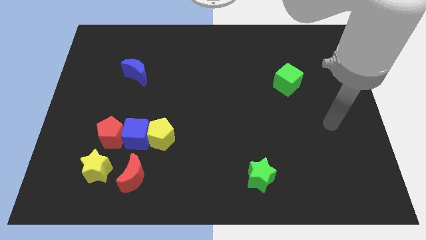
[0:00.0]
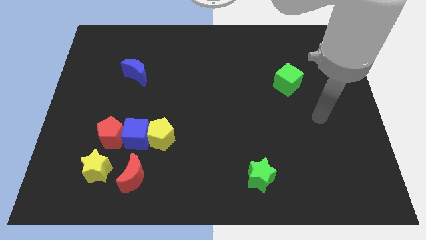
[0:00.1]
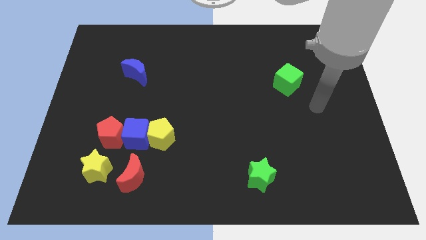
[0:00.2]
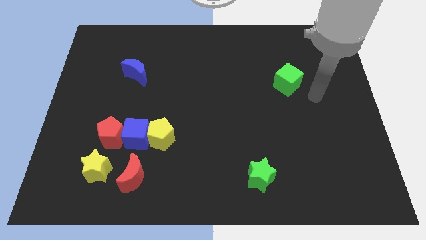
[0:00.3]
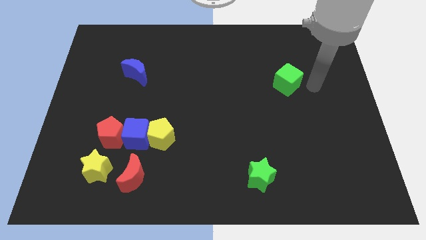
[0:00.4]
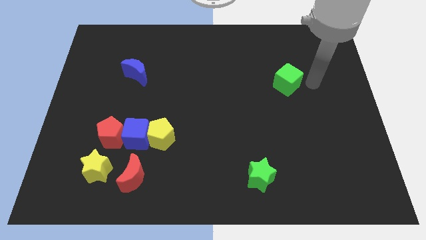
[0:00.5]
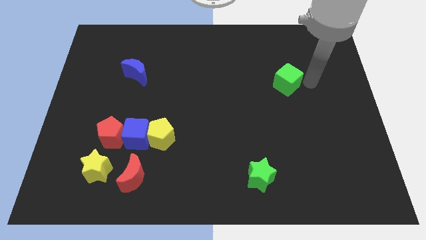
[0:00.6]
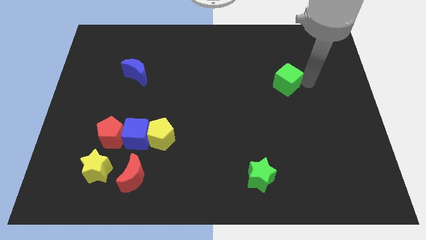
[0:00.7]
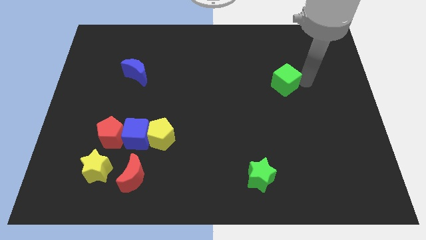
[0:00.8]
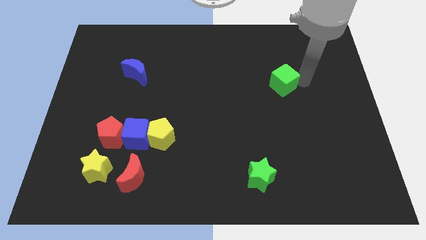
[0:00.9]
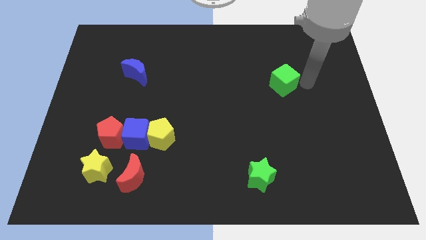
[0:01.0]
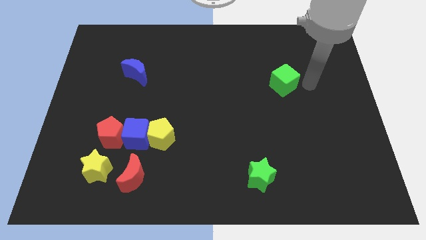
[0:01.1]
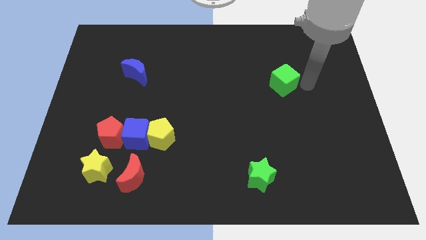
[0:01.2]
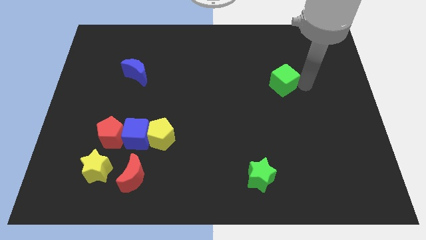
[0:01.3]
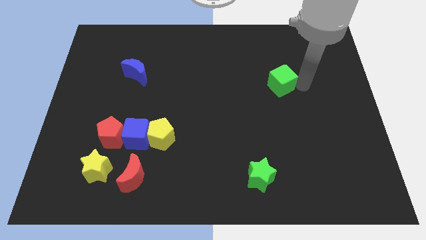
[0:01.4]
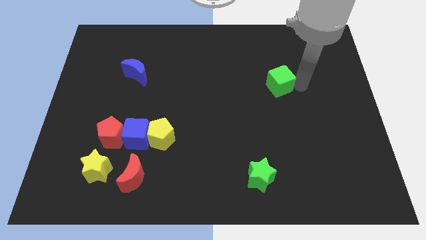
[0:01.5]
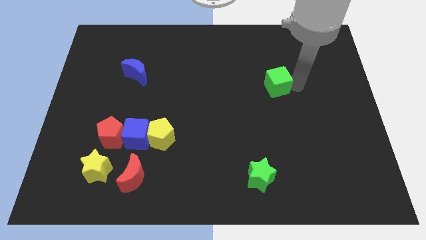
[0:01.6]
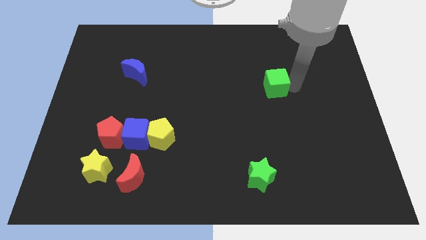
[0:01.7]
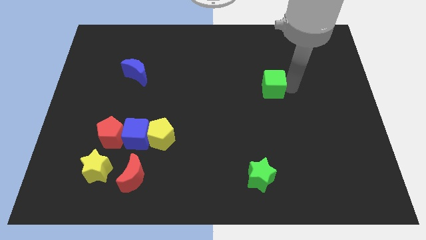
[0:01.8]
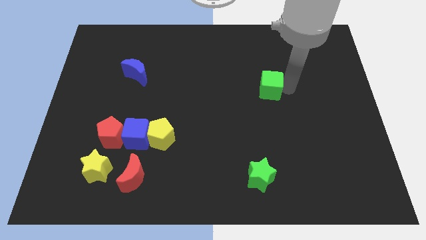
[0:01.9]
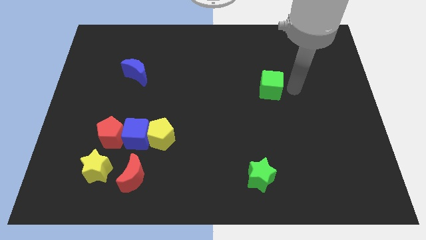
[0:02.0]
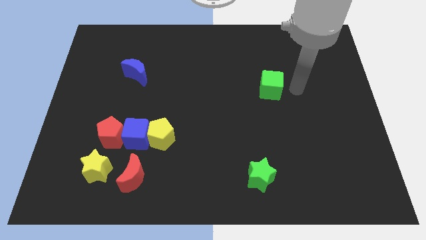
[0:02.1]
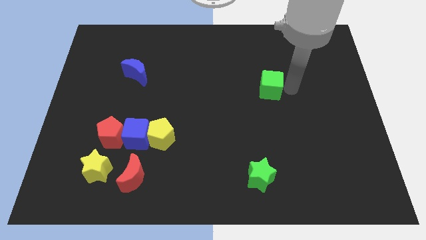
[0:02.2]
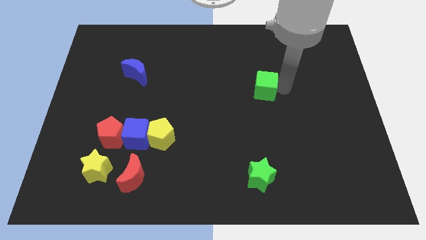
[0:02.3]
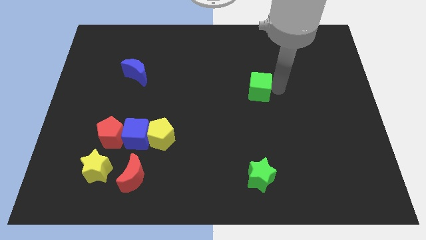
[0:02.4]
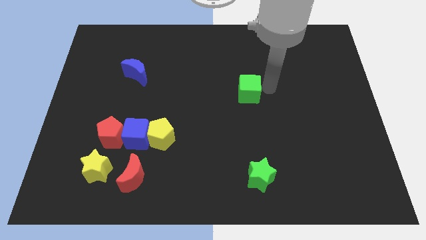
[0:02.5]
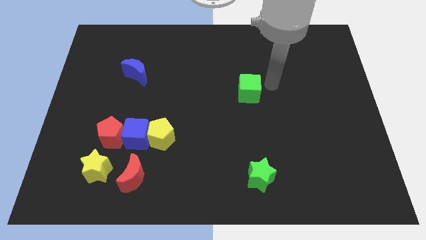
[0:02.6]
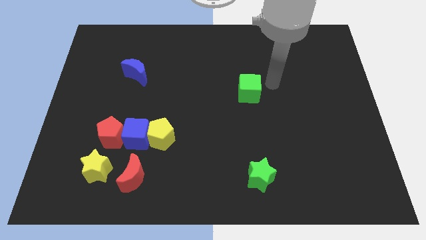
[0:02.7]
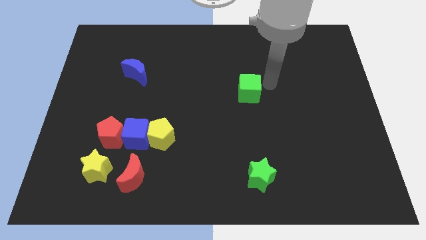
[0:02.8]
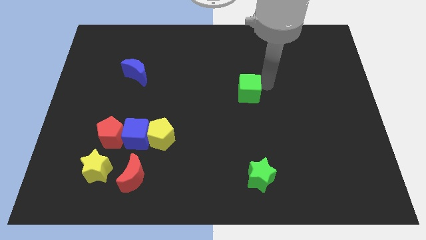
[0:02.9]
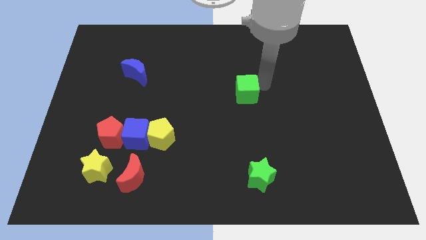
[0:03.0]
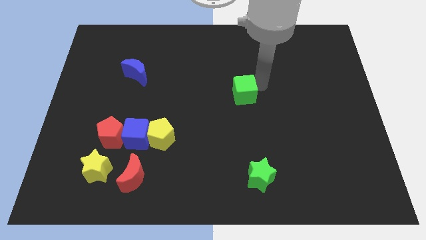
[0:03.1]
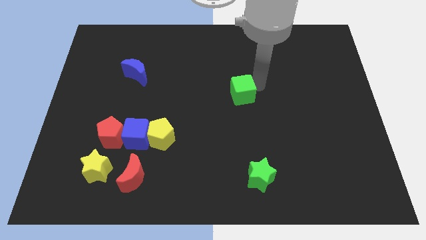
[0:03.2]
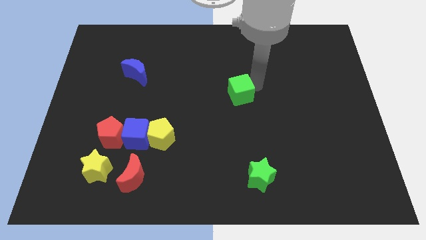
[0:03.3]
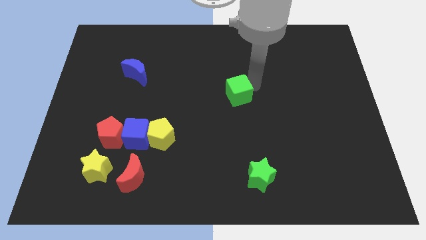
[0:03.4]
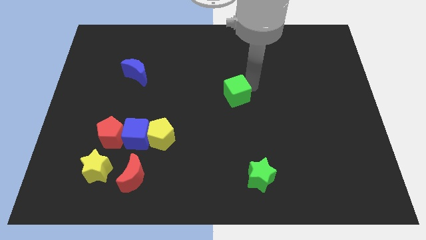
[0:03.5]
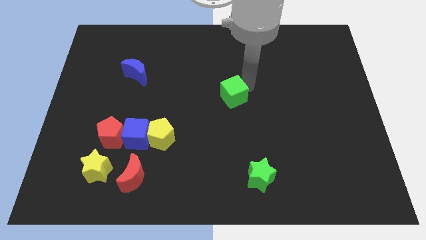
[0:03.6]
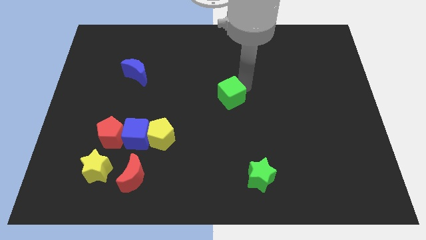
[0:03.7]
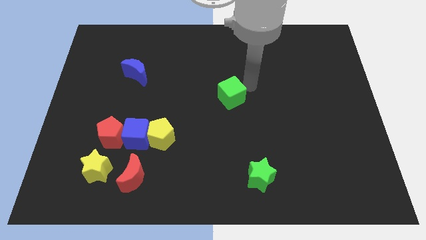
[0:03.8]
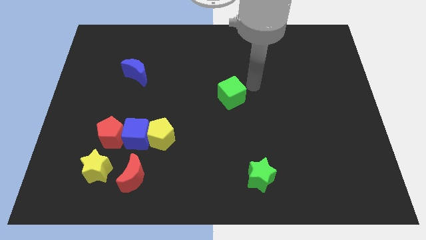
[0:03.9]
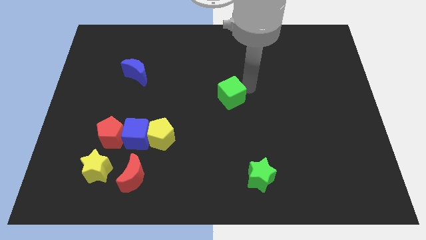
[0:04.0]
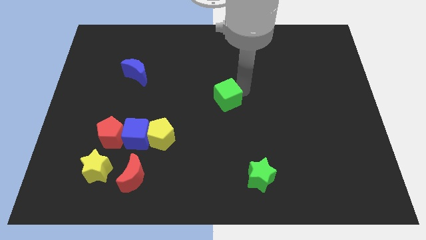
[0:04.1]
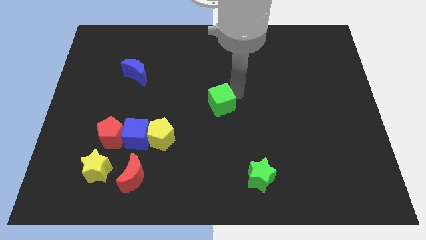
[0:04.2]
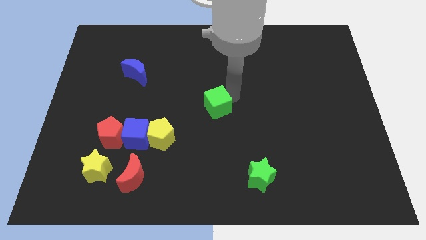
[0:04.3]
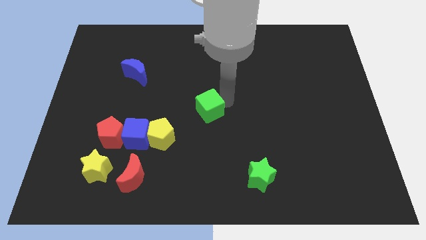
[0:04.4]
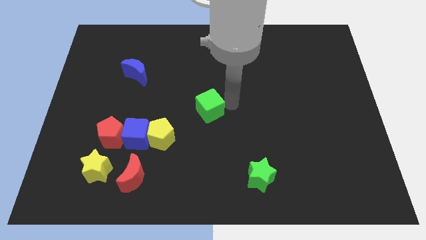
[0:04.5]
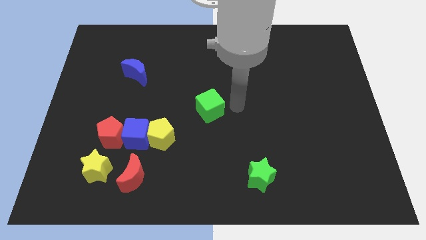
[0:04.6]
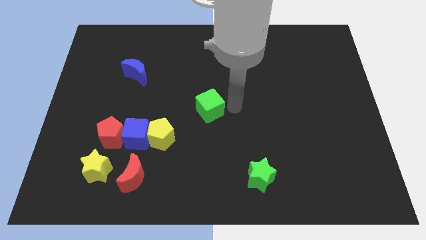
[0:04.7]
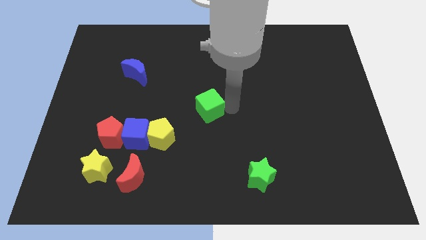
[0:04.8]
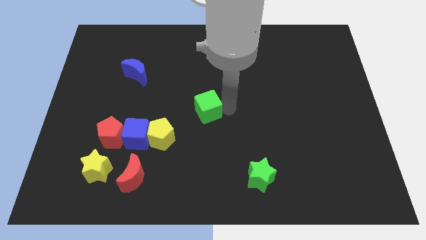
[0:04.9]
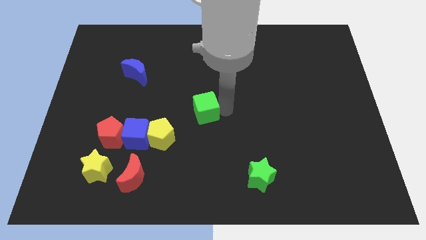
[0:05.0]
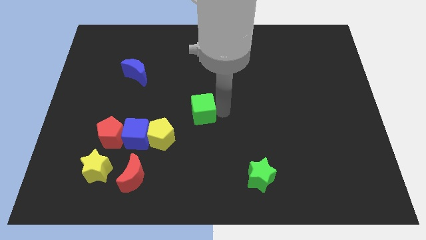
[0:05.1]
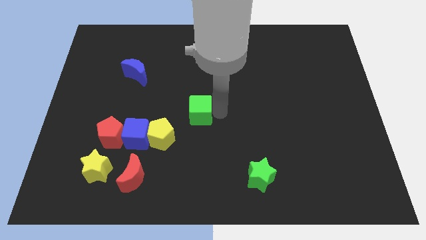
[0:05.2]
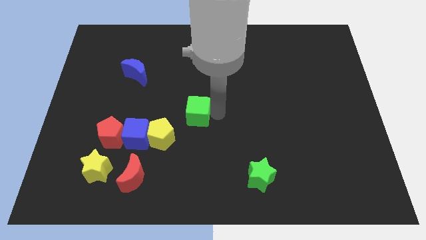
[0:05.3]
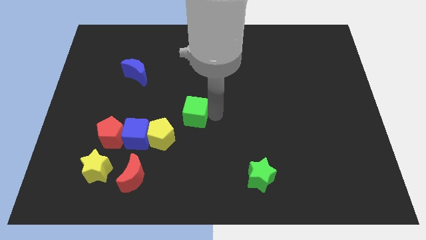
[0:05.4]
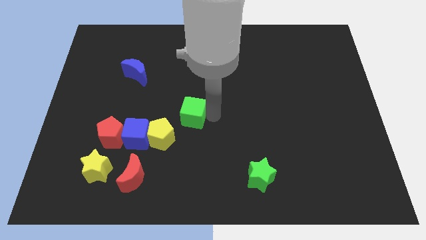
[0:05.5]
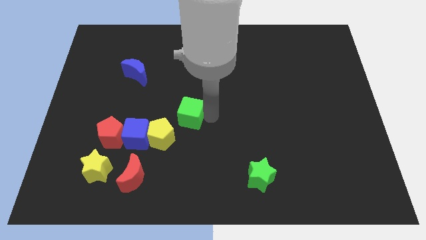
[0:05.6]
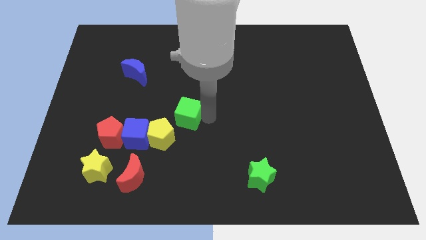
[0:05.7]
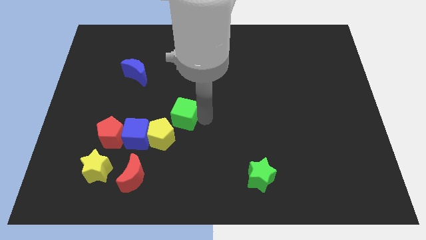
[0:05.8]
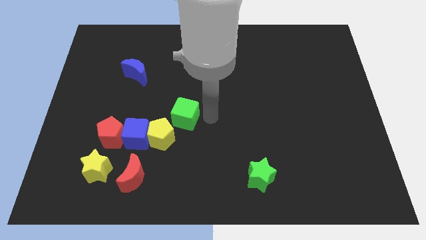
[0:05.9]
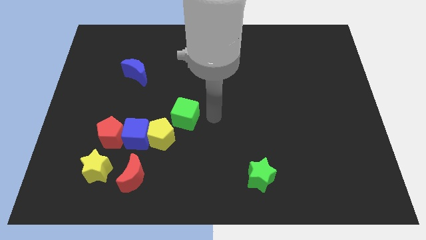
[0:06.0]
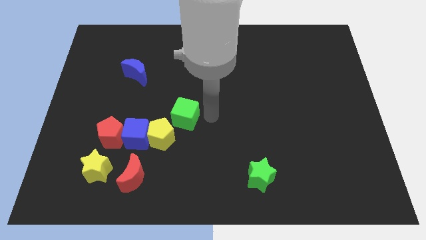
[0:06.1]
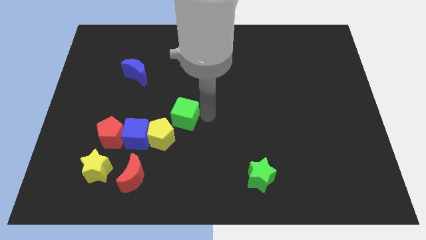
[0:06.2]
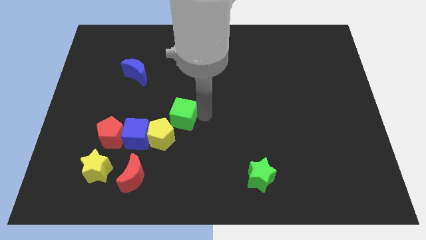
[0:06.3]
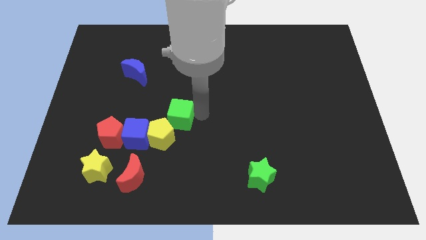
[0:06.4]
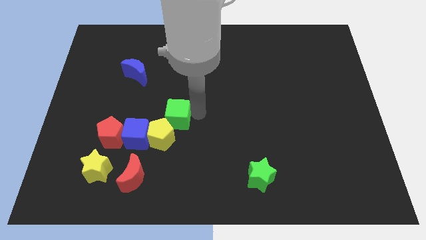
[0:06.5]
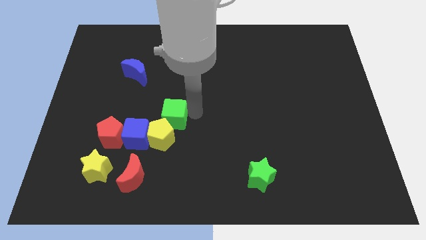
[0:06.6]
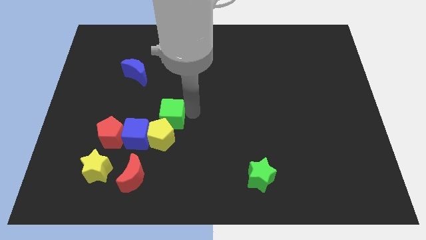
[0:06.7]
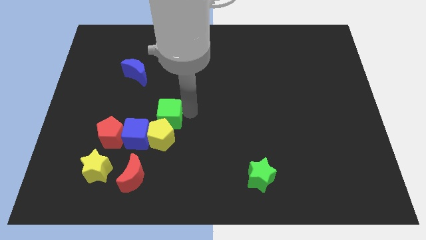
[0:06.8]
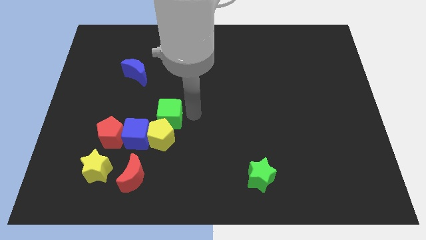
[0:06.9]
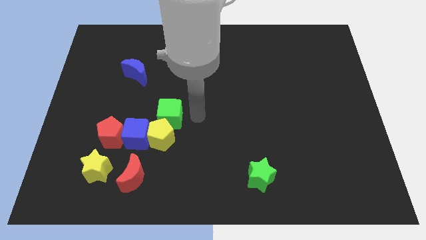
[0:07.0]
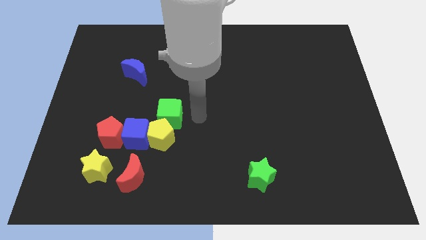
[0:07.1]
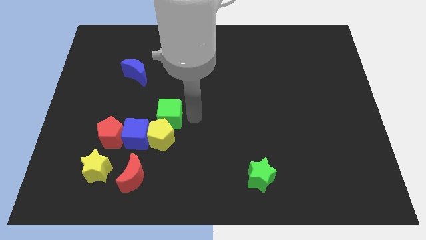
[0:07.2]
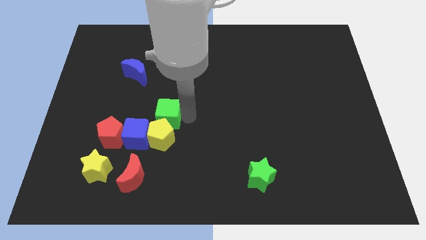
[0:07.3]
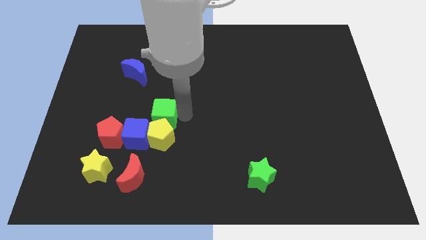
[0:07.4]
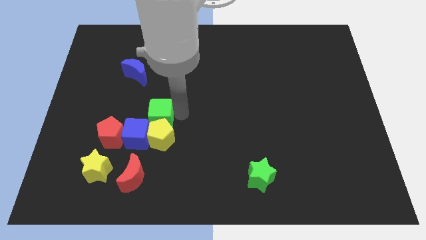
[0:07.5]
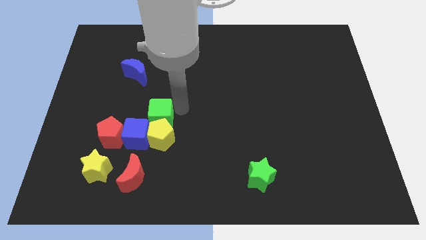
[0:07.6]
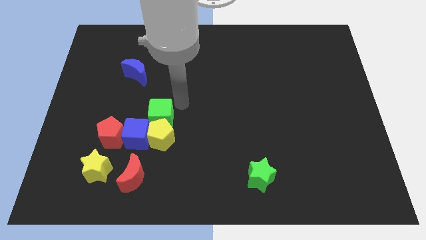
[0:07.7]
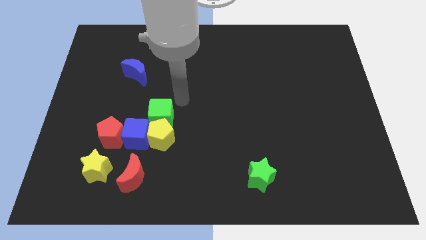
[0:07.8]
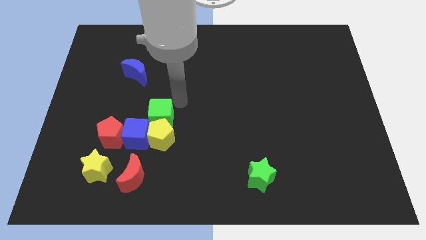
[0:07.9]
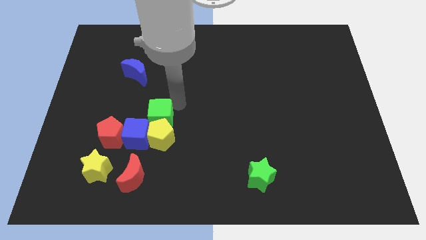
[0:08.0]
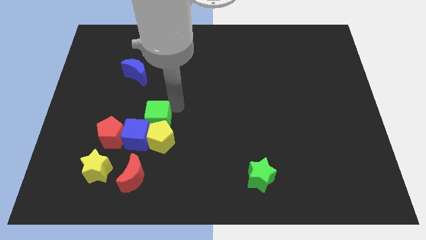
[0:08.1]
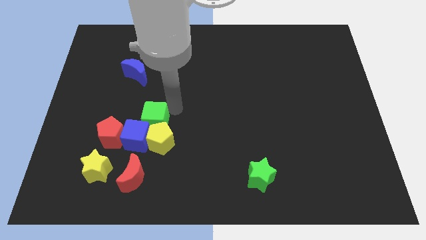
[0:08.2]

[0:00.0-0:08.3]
put the green cube to the blue cube
